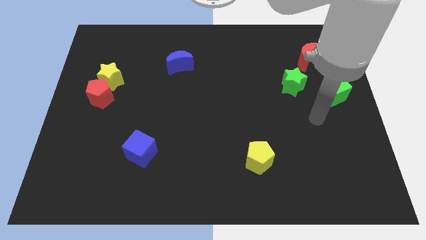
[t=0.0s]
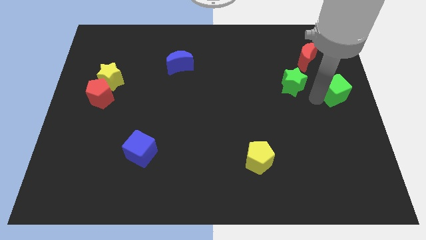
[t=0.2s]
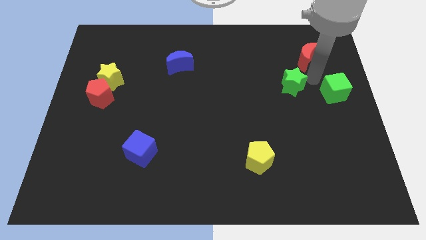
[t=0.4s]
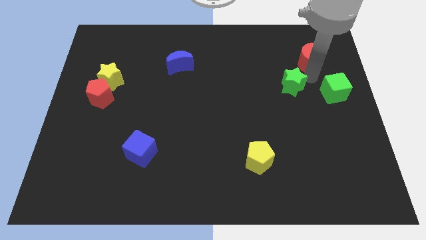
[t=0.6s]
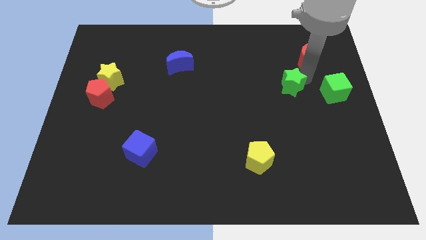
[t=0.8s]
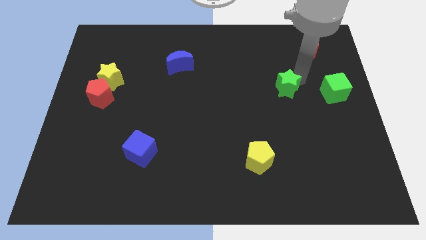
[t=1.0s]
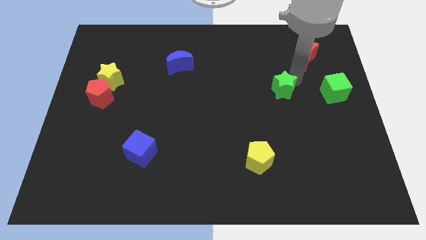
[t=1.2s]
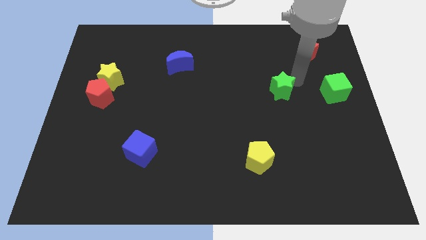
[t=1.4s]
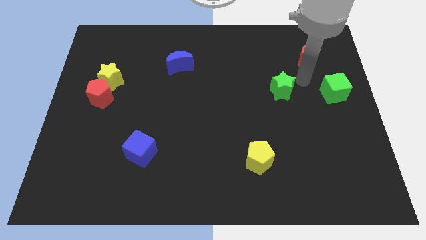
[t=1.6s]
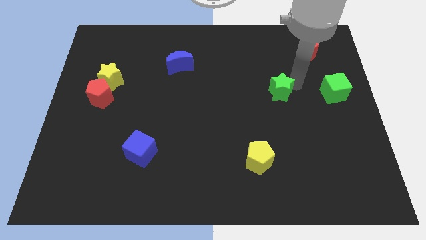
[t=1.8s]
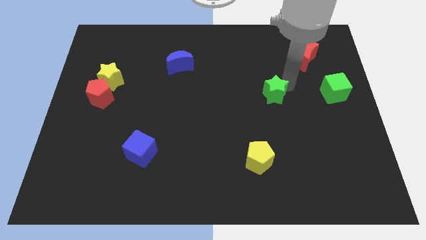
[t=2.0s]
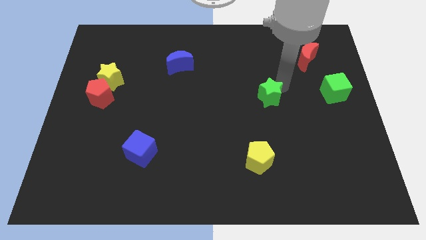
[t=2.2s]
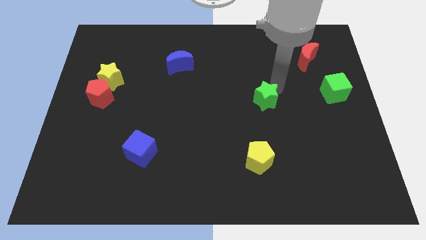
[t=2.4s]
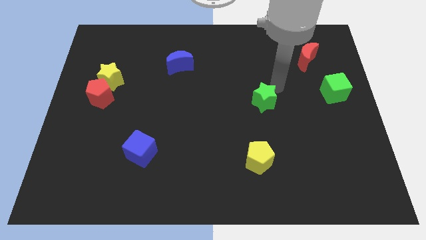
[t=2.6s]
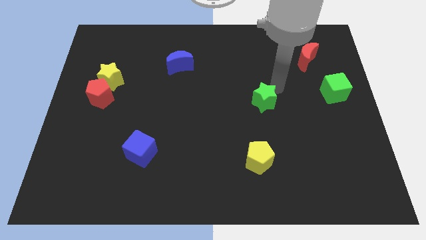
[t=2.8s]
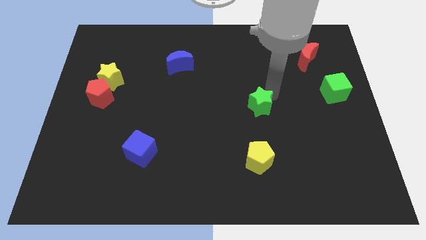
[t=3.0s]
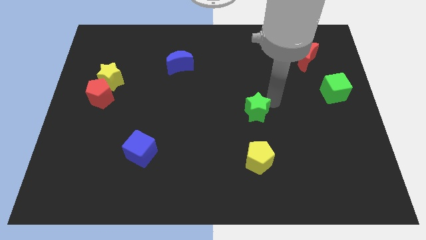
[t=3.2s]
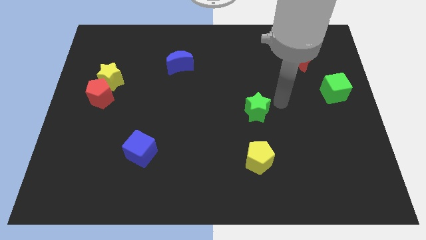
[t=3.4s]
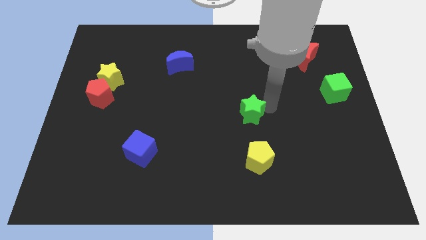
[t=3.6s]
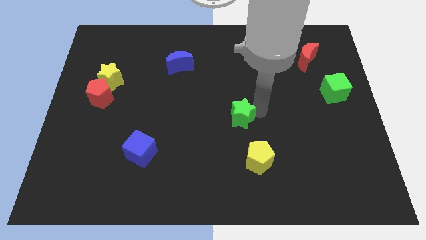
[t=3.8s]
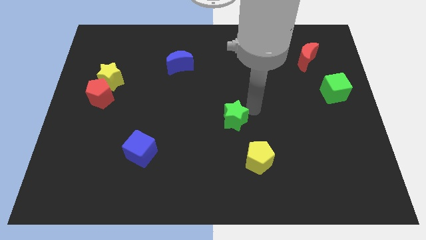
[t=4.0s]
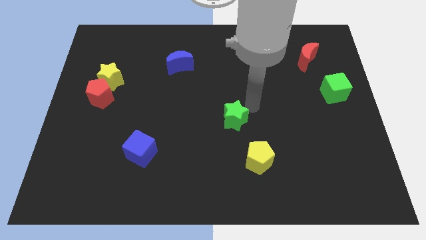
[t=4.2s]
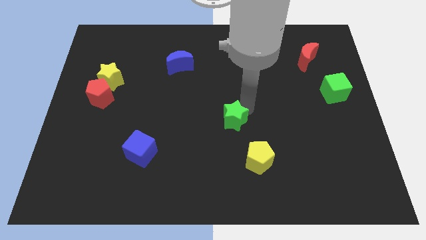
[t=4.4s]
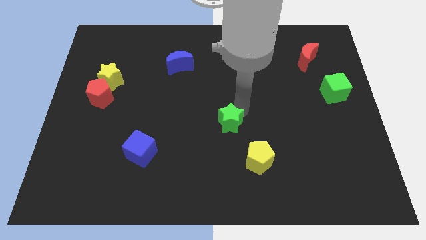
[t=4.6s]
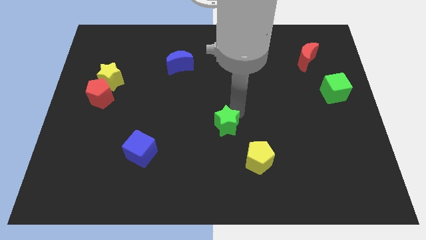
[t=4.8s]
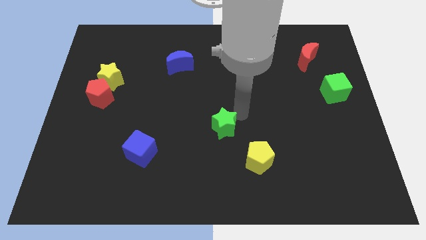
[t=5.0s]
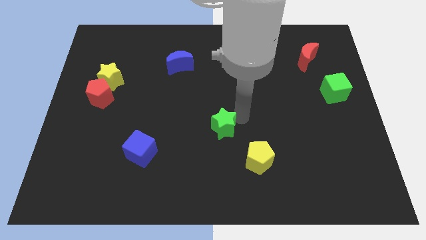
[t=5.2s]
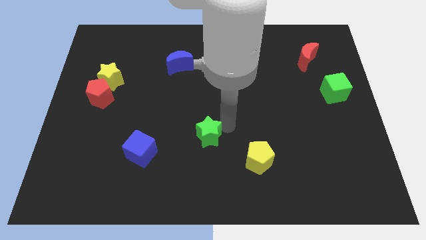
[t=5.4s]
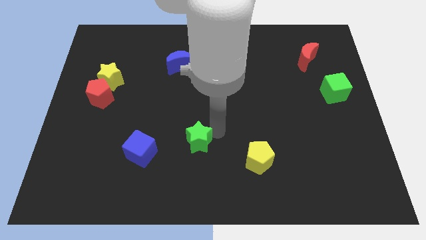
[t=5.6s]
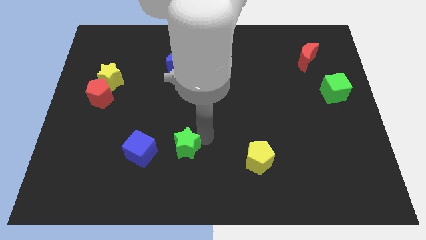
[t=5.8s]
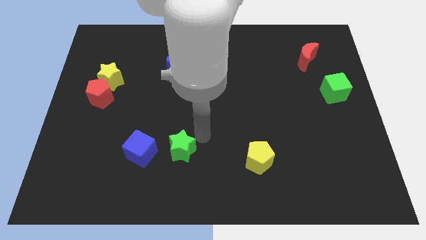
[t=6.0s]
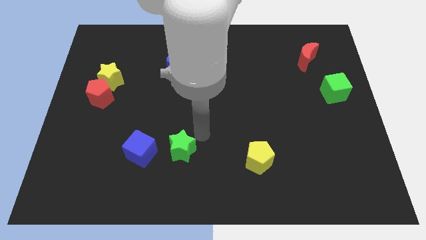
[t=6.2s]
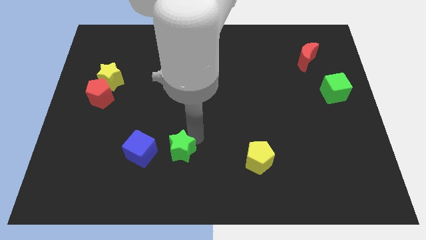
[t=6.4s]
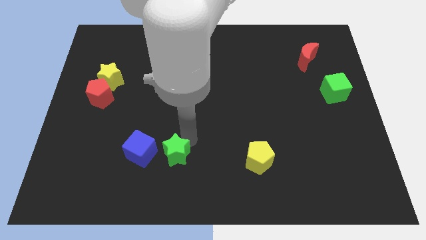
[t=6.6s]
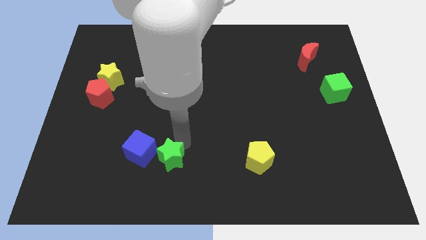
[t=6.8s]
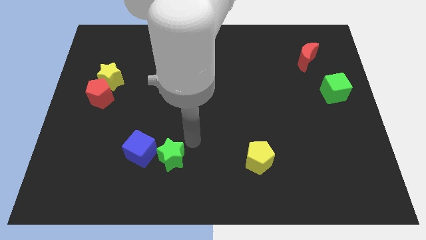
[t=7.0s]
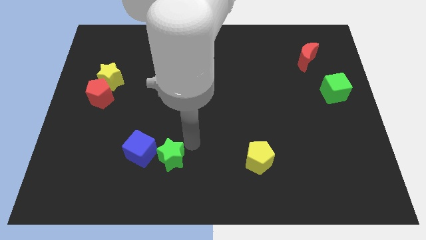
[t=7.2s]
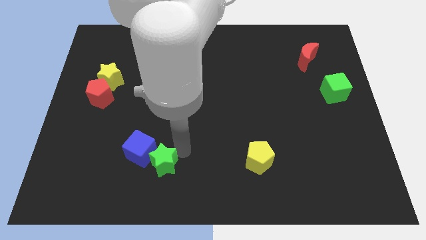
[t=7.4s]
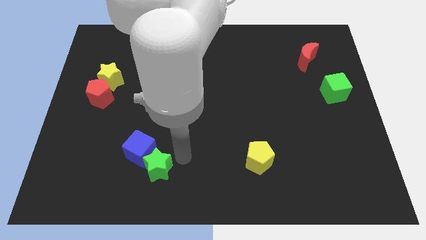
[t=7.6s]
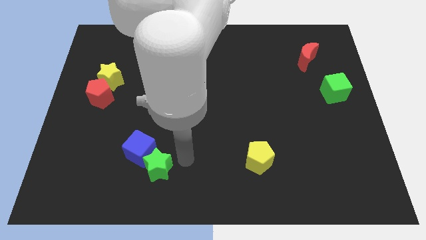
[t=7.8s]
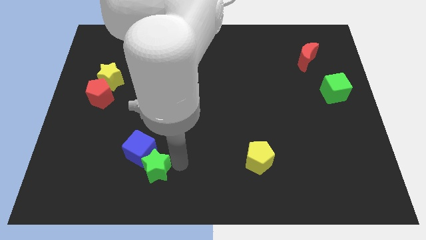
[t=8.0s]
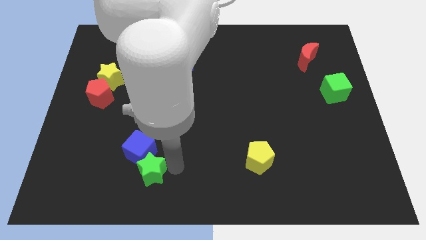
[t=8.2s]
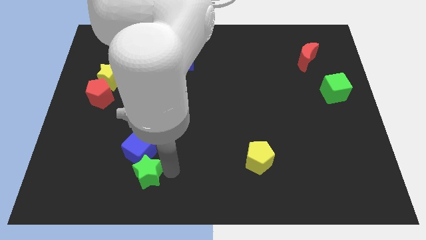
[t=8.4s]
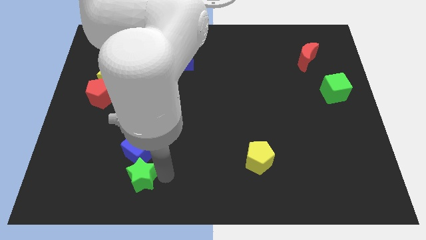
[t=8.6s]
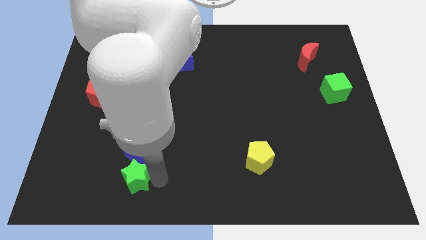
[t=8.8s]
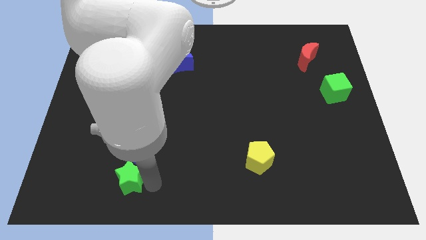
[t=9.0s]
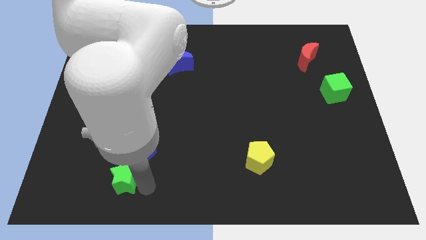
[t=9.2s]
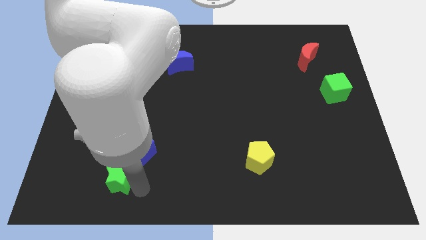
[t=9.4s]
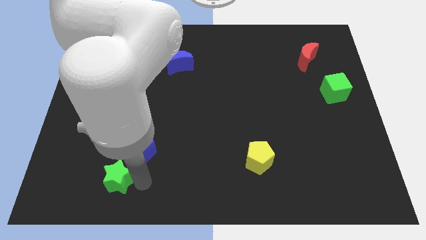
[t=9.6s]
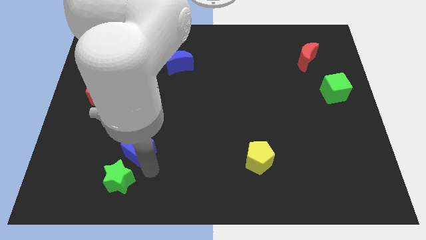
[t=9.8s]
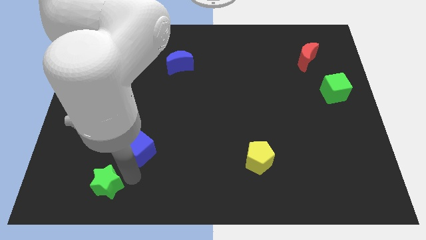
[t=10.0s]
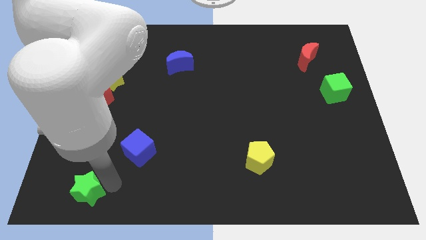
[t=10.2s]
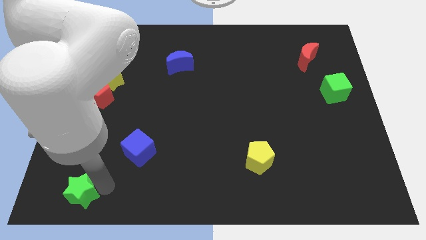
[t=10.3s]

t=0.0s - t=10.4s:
push the green star to the bottom left

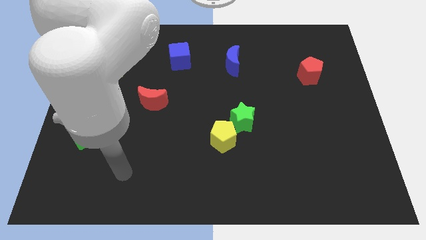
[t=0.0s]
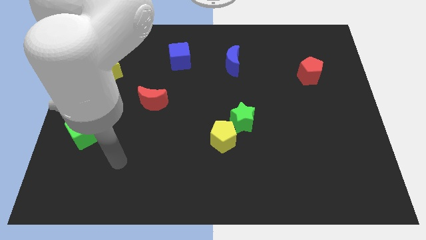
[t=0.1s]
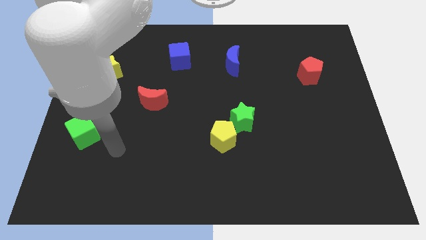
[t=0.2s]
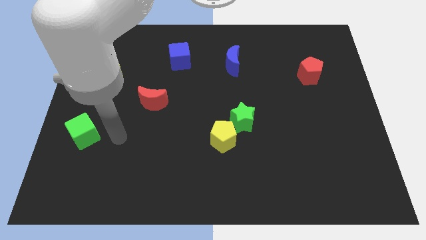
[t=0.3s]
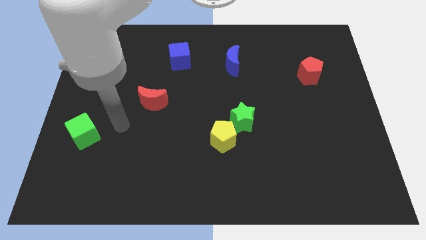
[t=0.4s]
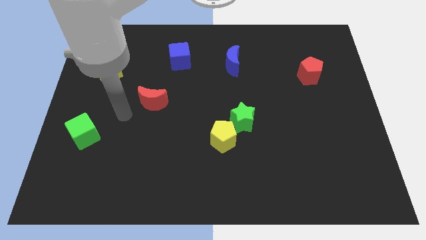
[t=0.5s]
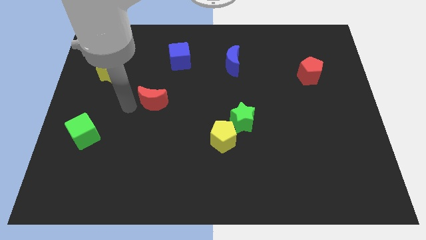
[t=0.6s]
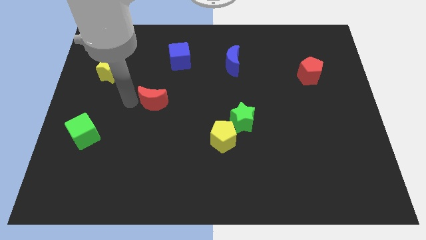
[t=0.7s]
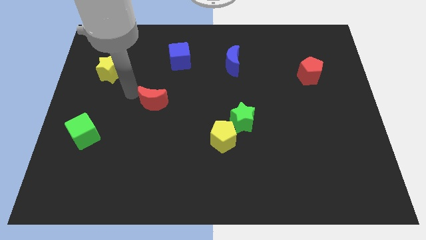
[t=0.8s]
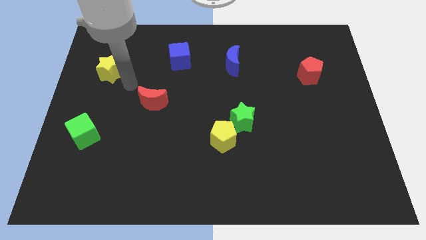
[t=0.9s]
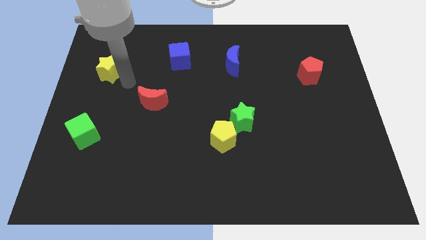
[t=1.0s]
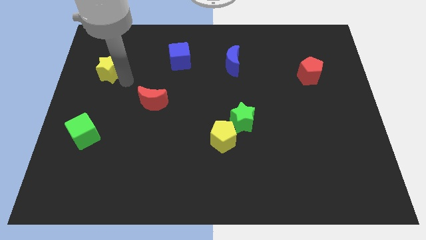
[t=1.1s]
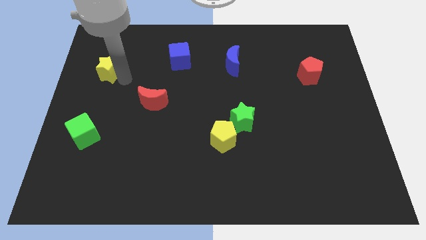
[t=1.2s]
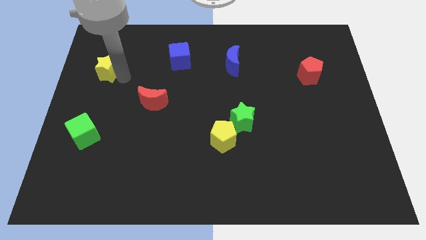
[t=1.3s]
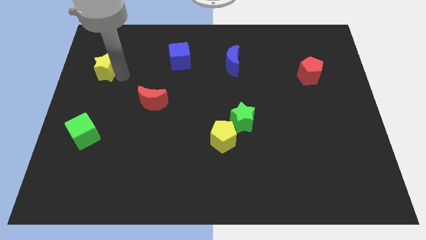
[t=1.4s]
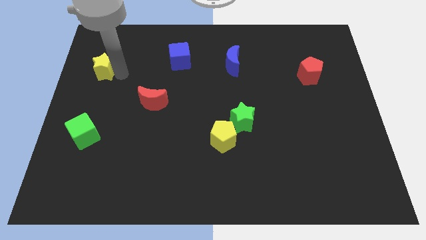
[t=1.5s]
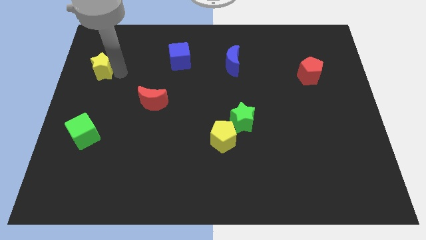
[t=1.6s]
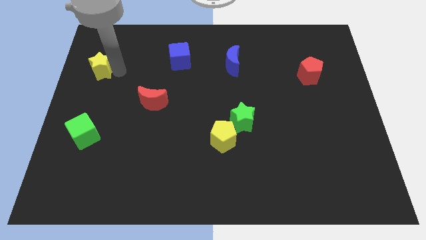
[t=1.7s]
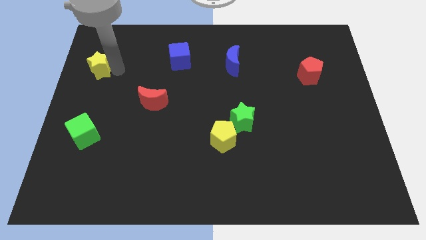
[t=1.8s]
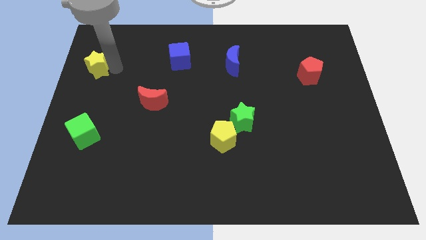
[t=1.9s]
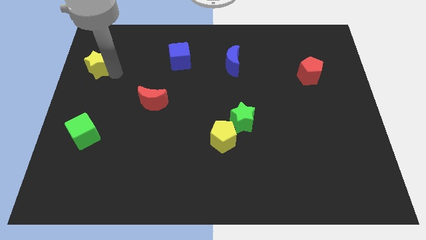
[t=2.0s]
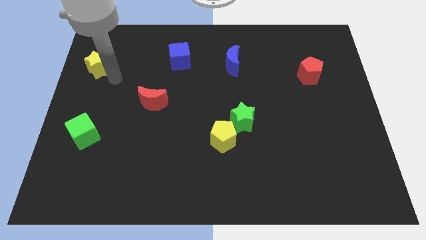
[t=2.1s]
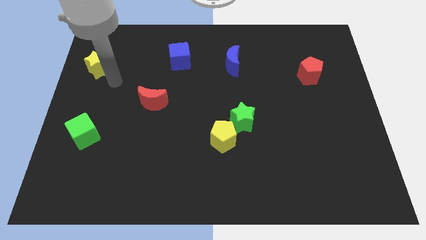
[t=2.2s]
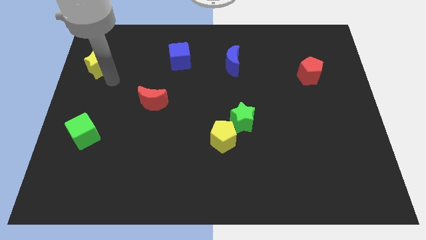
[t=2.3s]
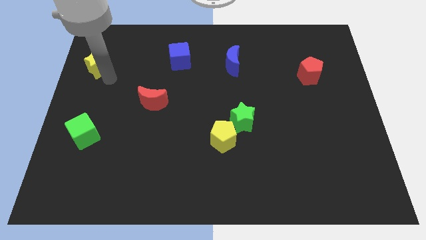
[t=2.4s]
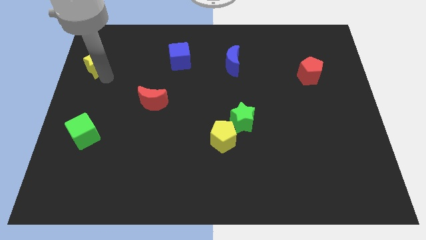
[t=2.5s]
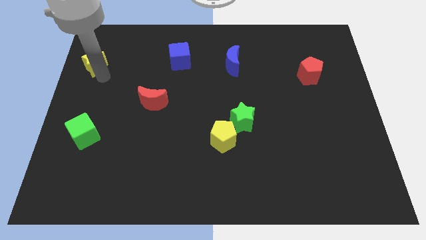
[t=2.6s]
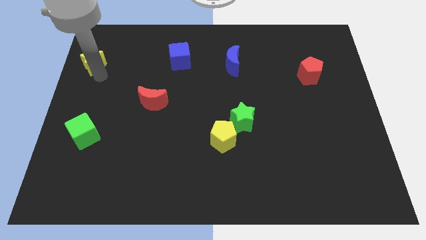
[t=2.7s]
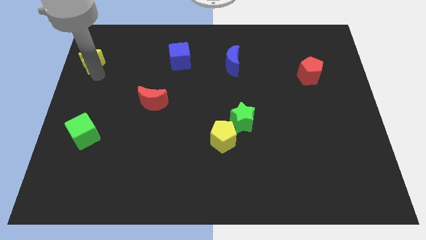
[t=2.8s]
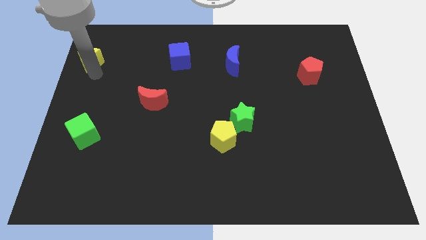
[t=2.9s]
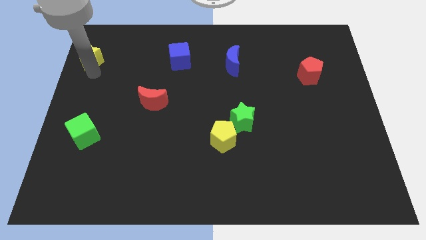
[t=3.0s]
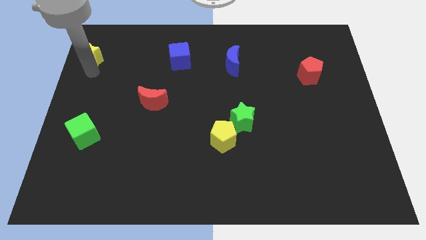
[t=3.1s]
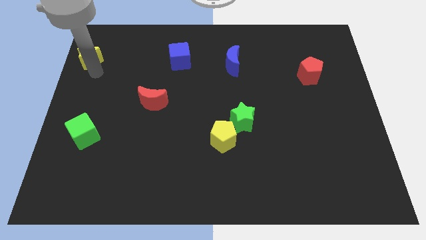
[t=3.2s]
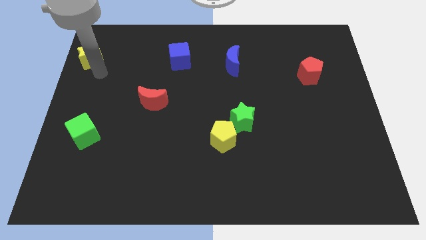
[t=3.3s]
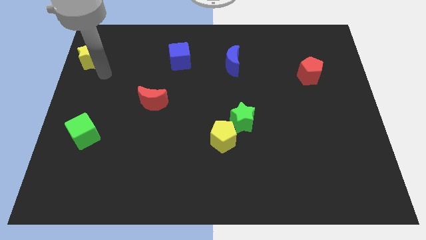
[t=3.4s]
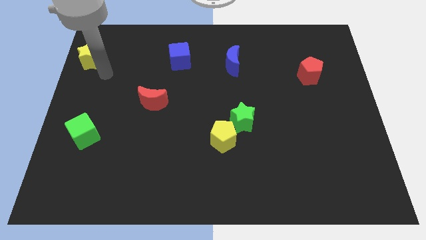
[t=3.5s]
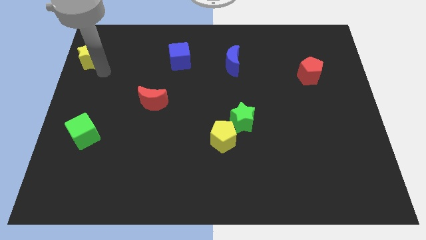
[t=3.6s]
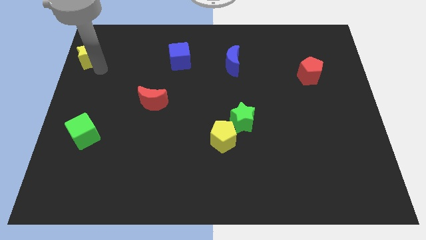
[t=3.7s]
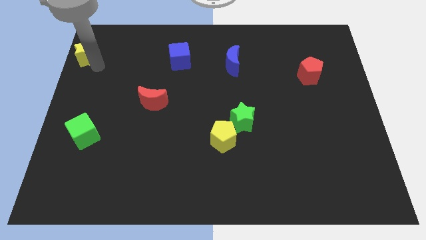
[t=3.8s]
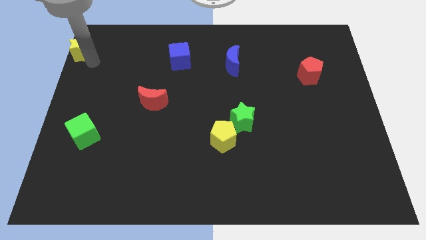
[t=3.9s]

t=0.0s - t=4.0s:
move the yellow star to the upper left corner
